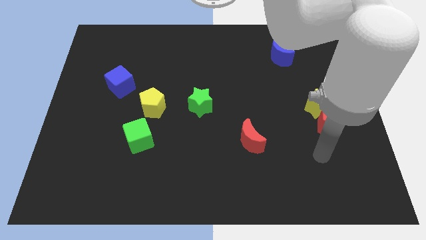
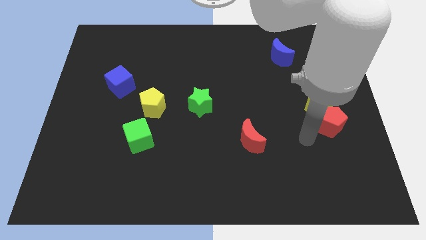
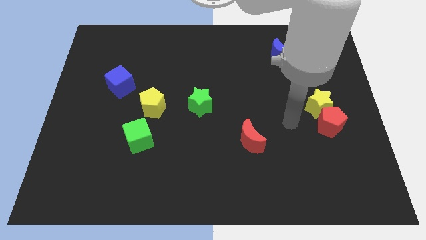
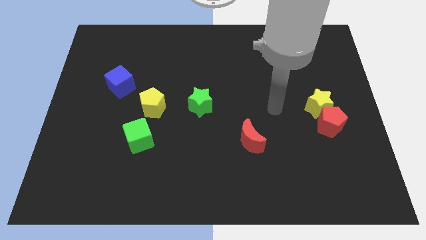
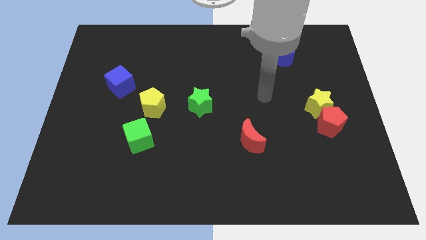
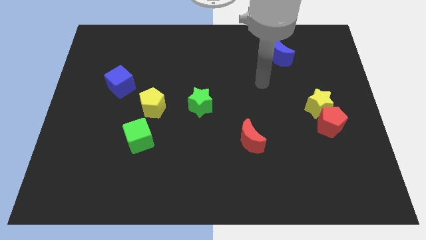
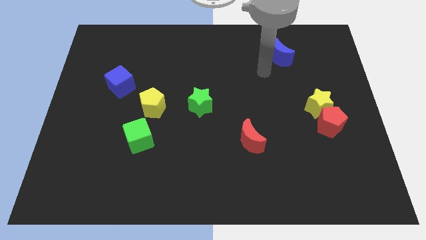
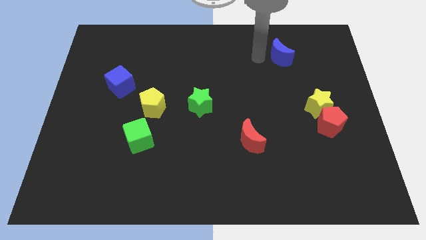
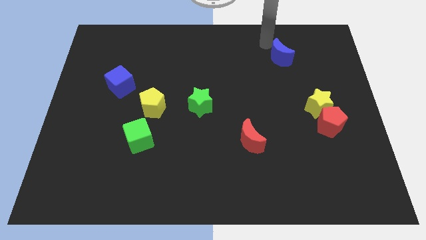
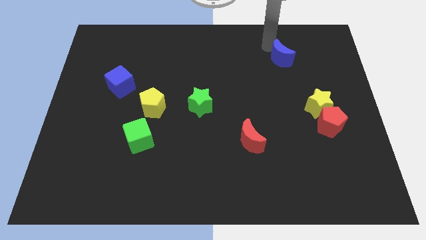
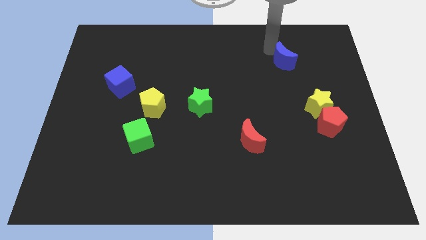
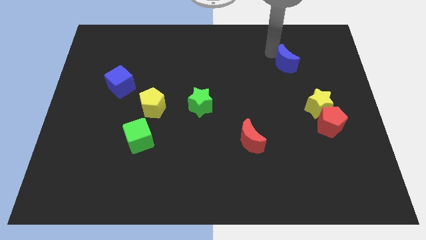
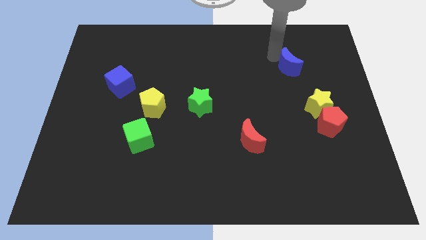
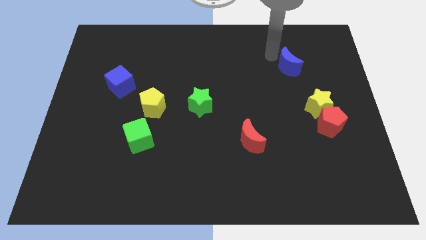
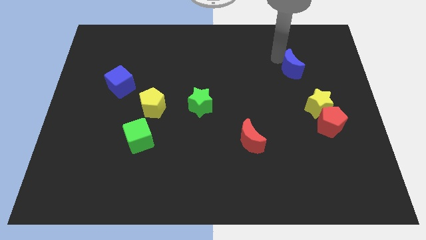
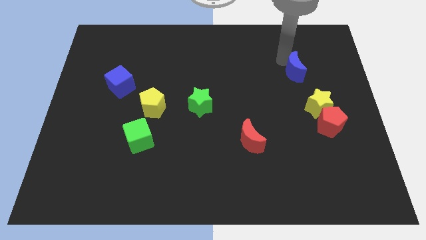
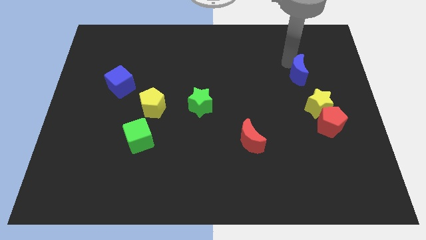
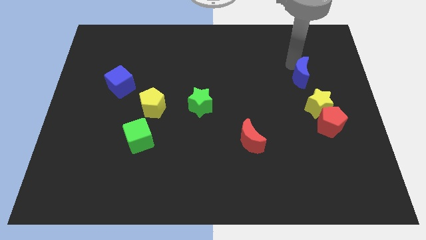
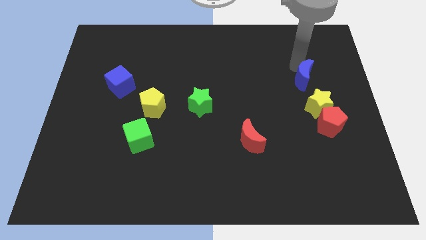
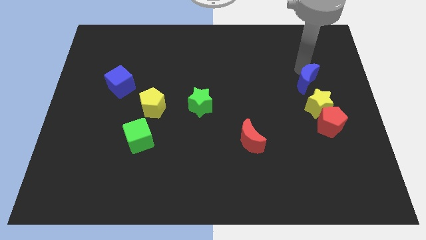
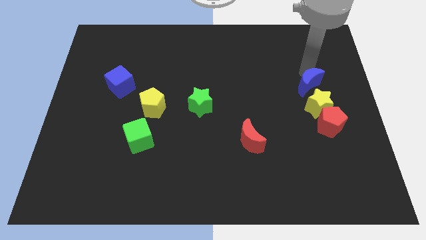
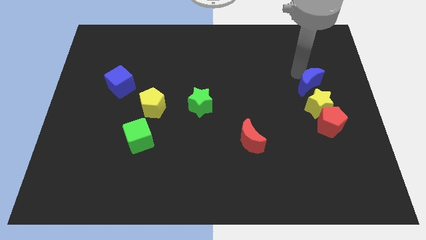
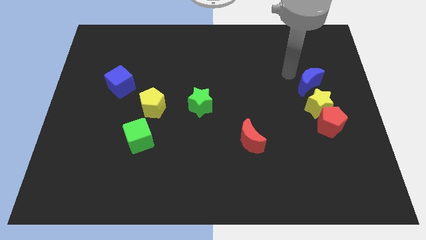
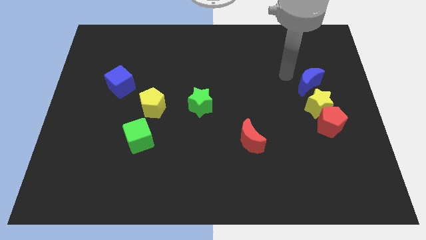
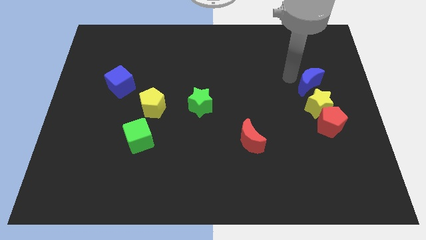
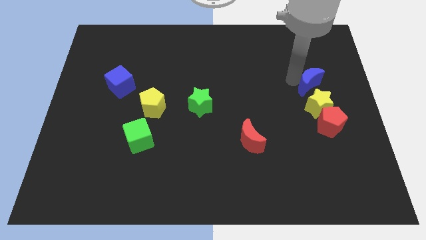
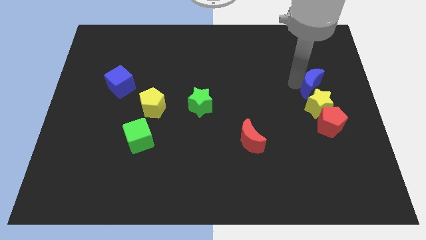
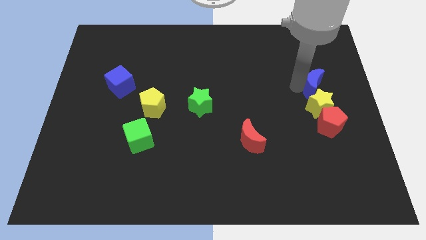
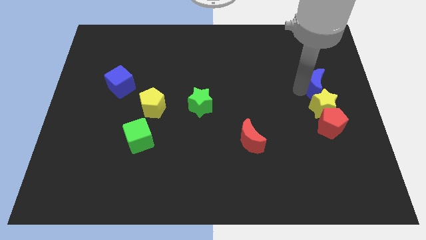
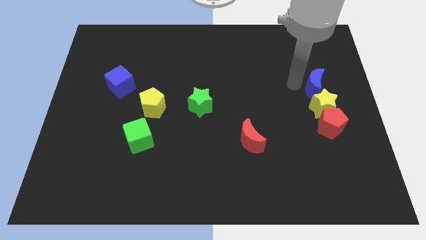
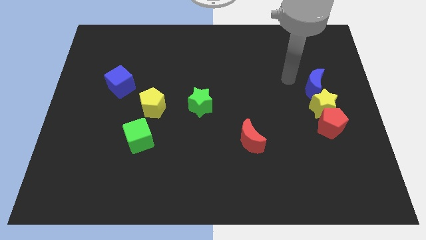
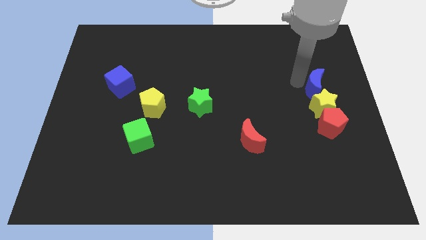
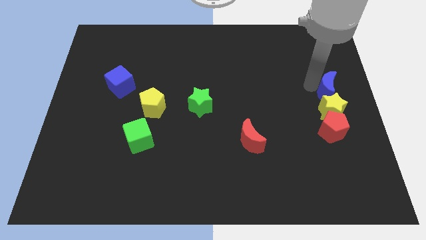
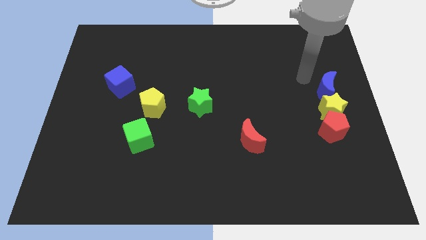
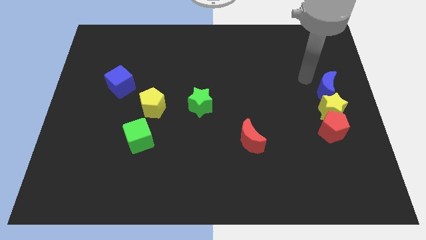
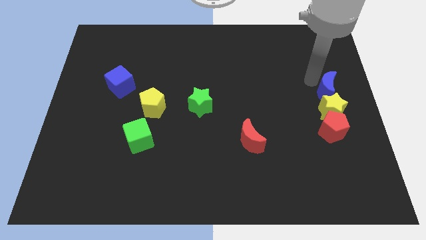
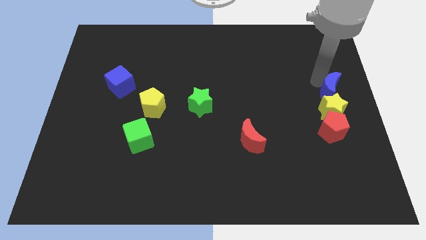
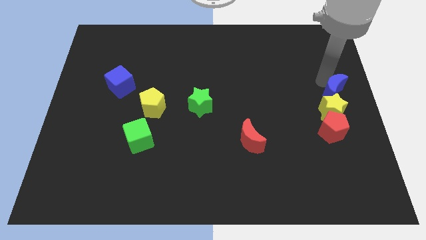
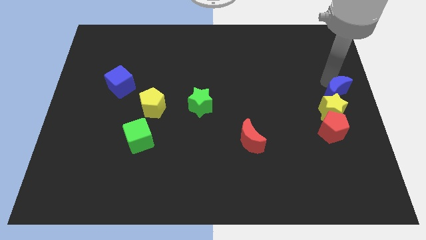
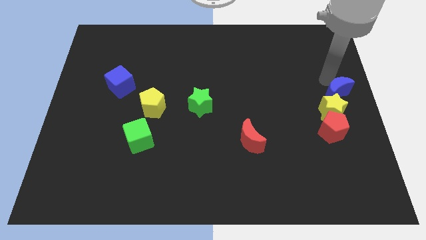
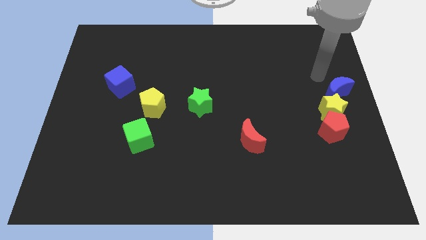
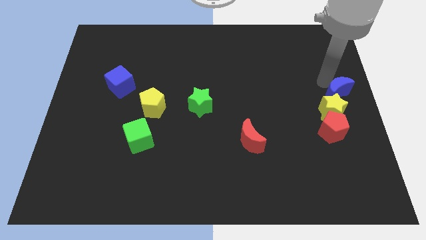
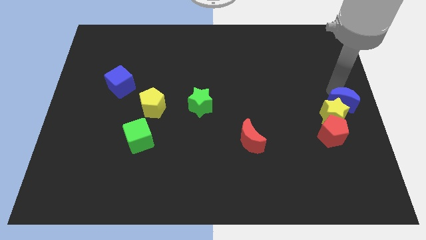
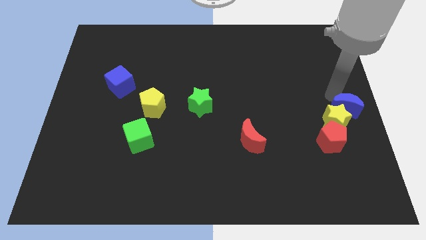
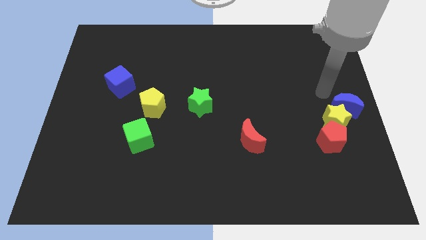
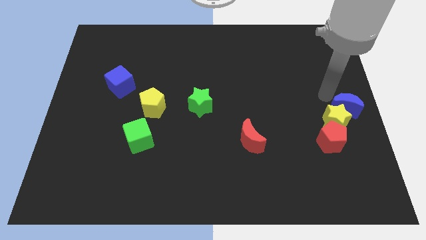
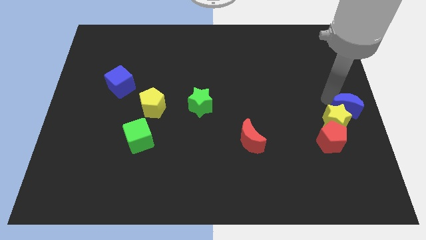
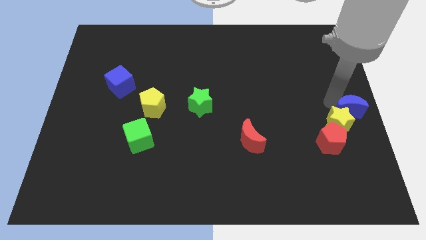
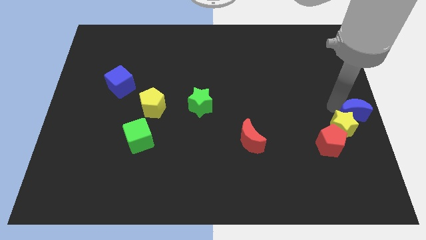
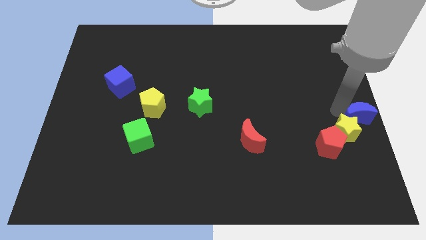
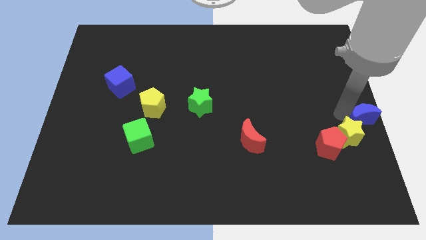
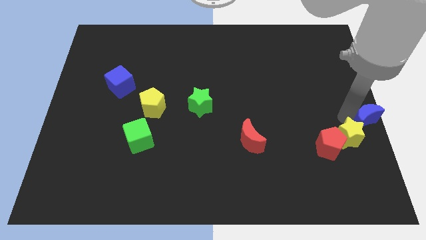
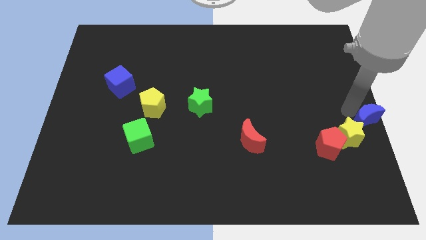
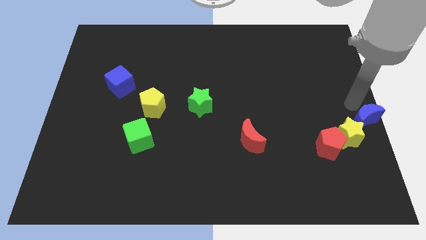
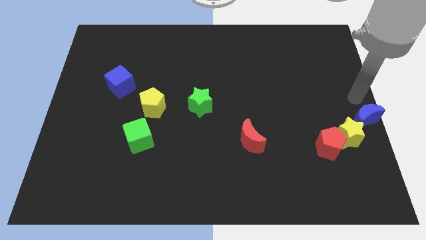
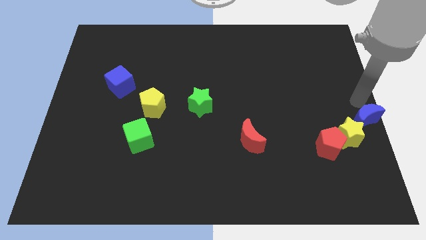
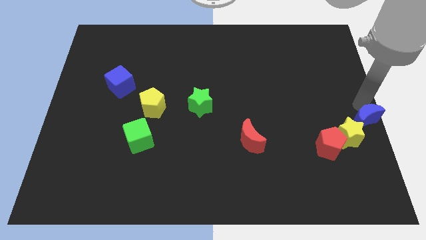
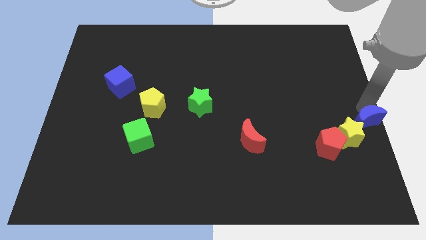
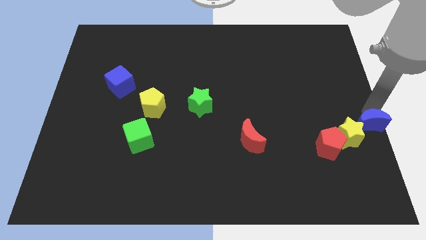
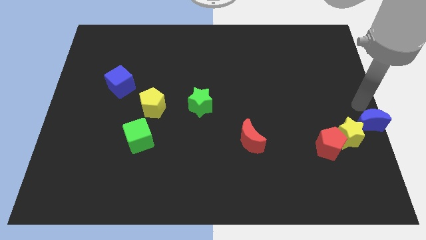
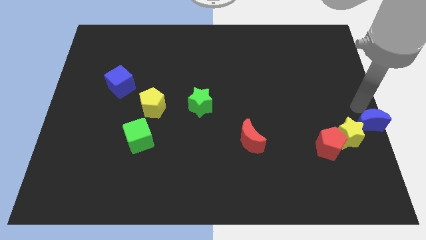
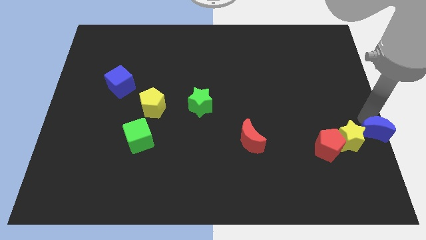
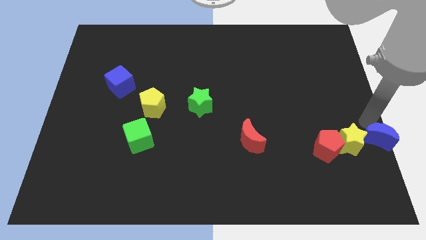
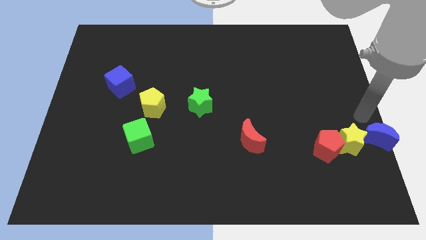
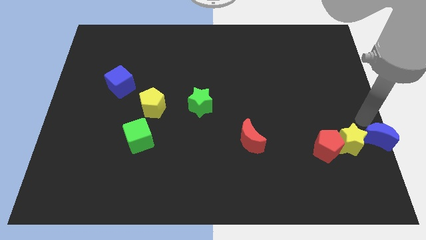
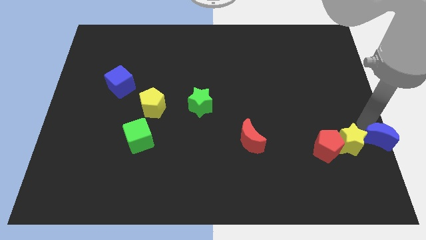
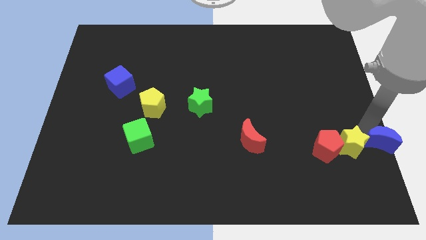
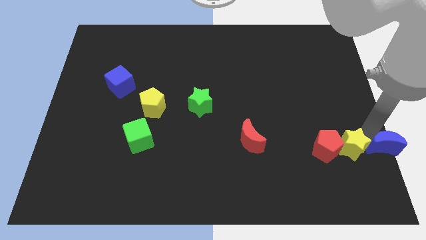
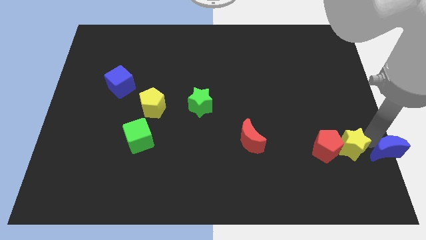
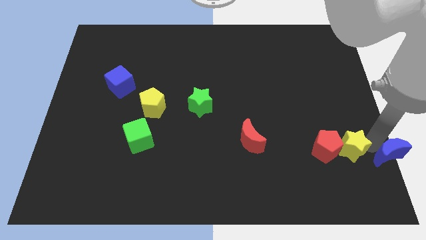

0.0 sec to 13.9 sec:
move the blue moon to the lower right corner
